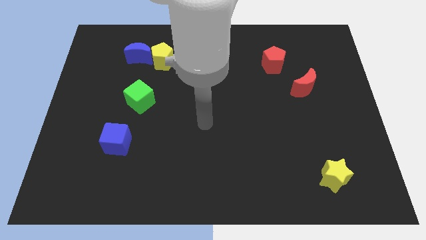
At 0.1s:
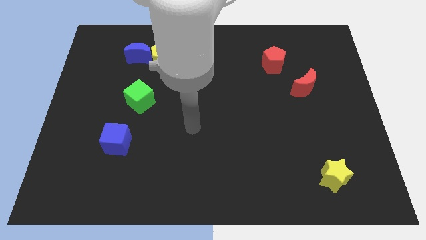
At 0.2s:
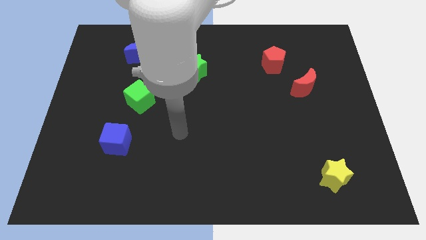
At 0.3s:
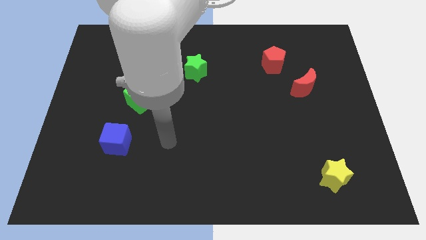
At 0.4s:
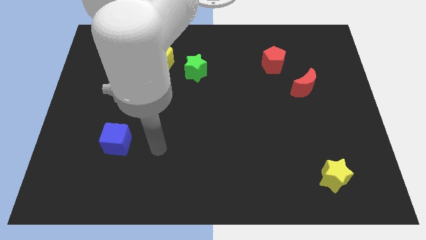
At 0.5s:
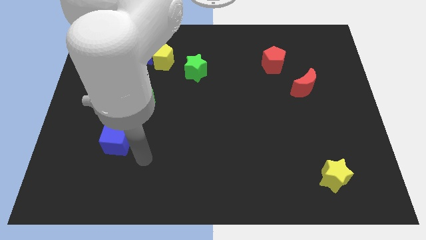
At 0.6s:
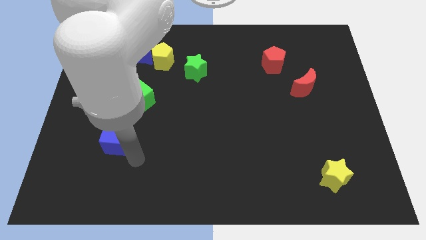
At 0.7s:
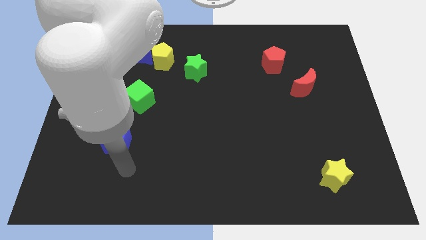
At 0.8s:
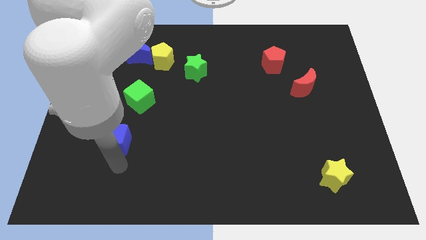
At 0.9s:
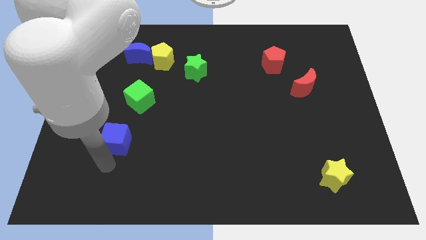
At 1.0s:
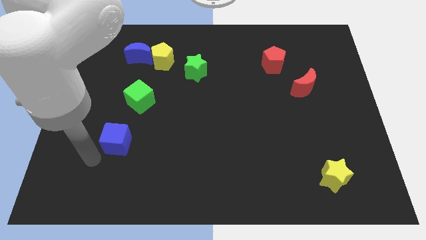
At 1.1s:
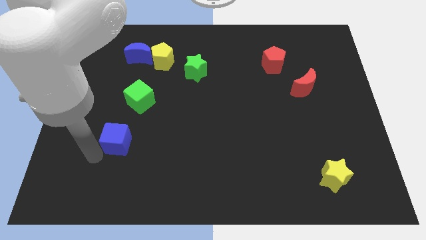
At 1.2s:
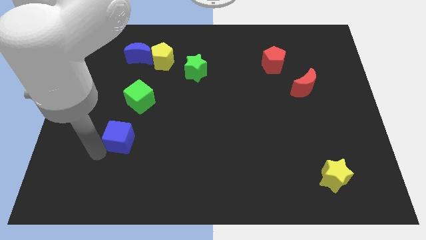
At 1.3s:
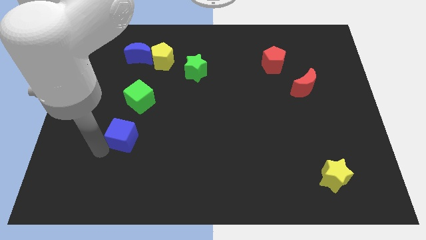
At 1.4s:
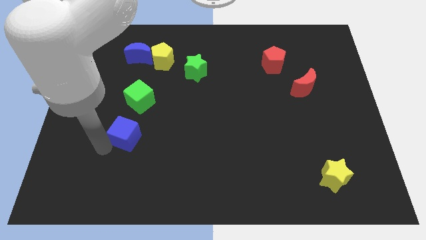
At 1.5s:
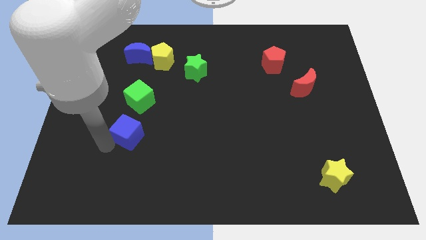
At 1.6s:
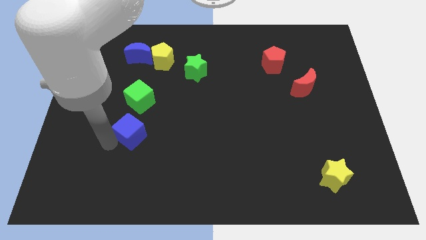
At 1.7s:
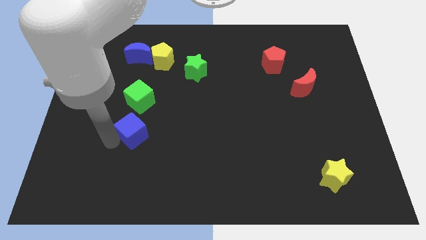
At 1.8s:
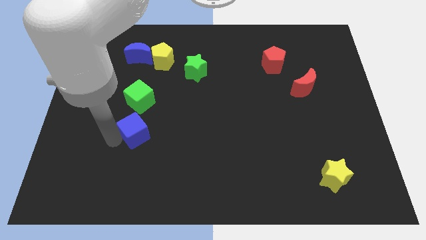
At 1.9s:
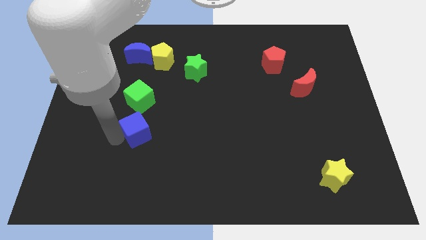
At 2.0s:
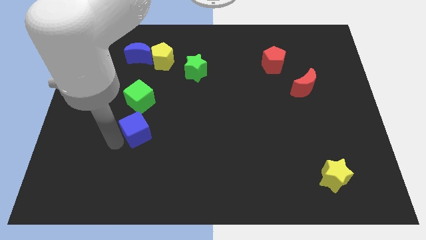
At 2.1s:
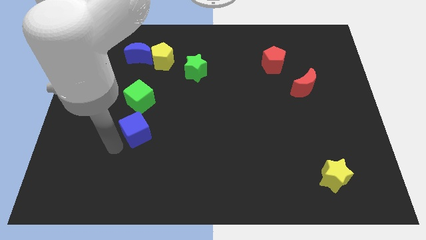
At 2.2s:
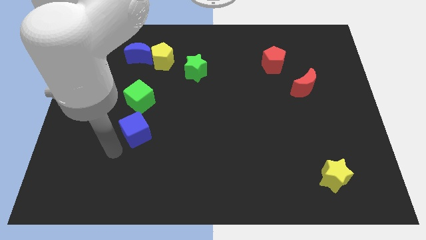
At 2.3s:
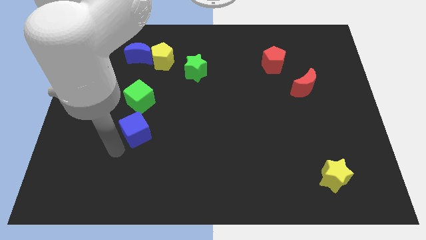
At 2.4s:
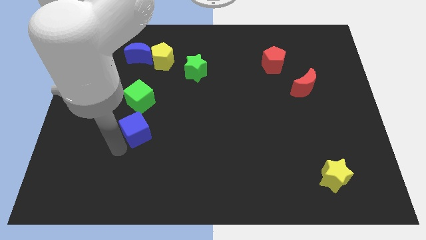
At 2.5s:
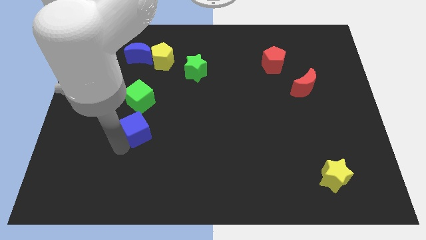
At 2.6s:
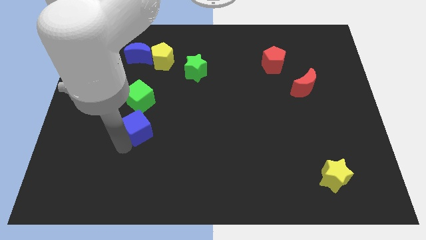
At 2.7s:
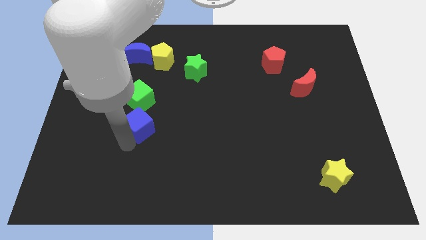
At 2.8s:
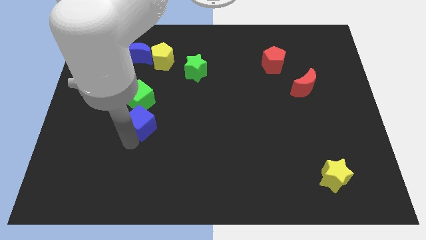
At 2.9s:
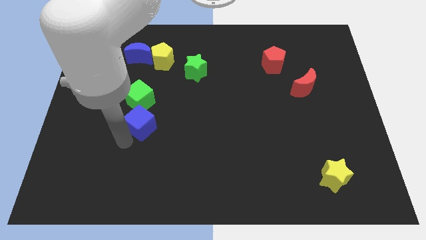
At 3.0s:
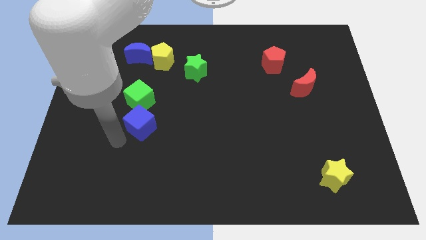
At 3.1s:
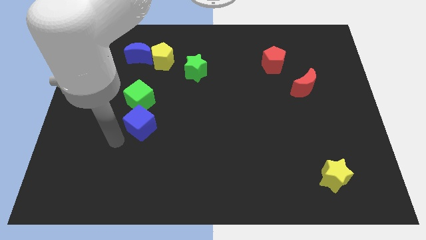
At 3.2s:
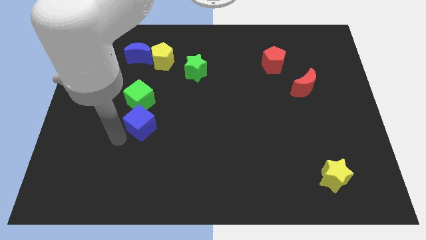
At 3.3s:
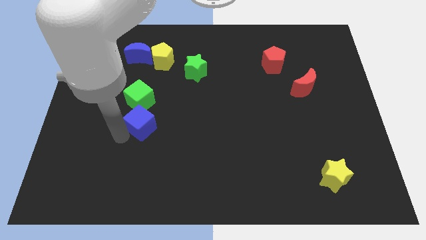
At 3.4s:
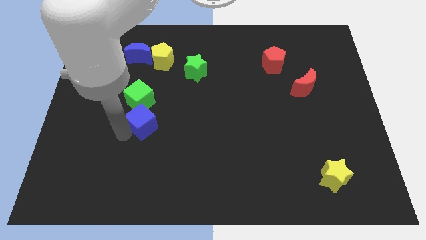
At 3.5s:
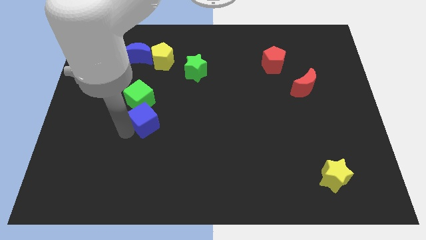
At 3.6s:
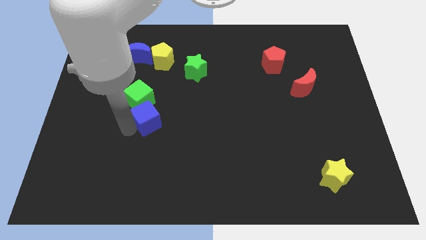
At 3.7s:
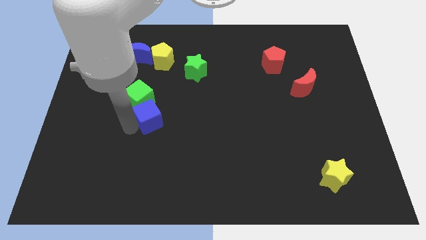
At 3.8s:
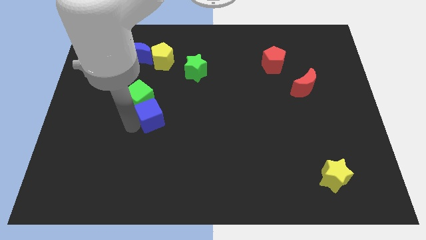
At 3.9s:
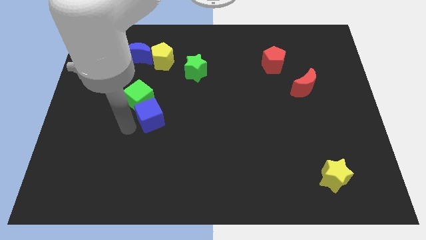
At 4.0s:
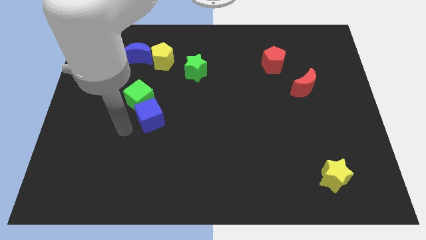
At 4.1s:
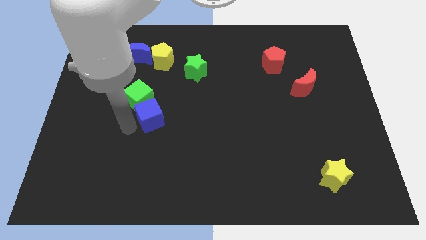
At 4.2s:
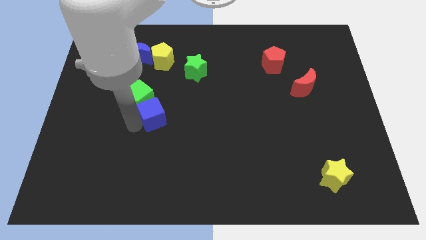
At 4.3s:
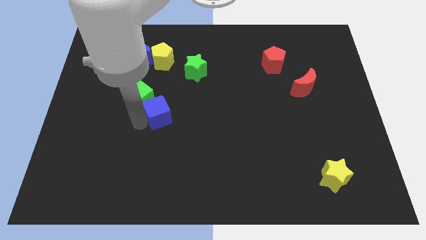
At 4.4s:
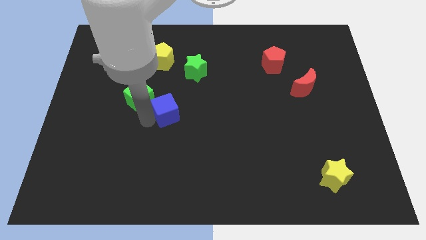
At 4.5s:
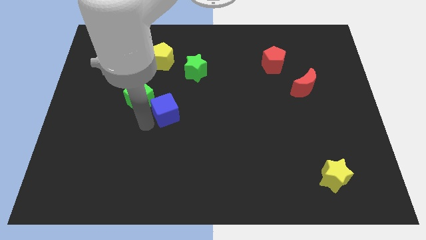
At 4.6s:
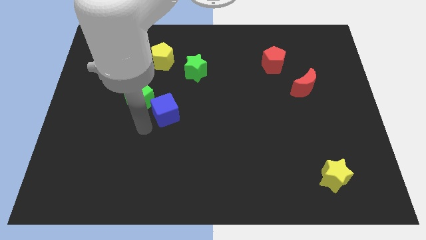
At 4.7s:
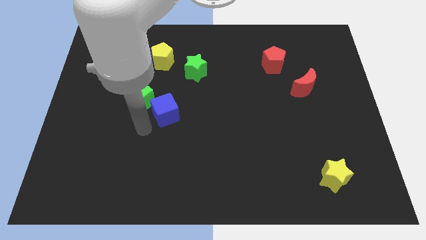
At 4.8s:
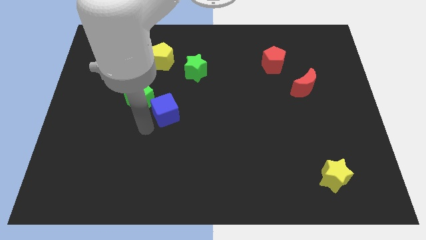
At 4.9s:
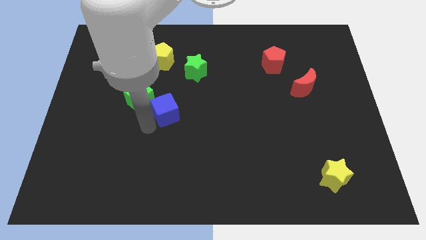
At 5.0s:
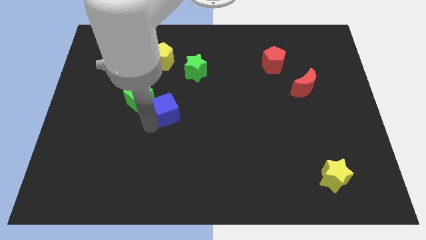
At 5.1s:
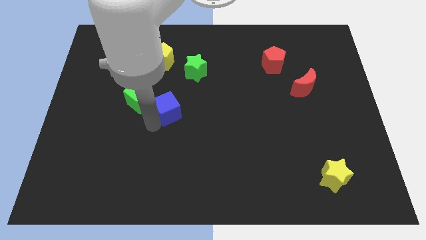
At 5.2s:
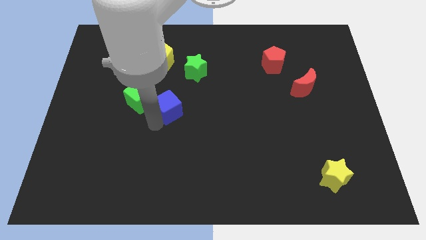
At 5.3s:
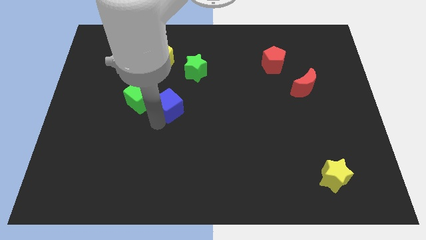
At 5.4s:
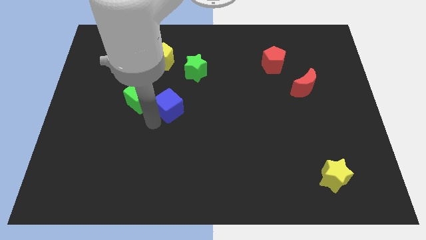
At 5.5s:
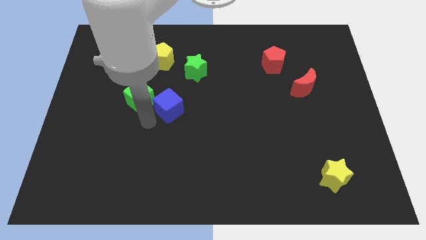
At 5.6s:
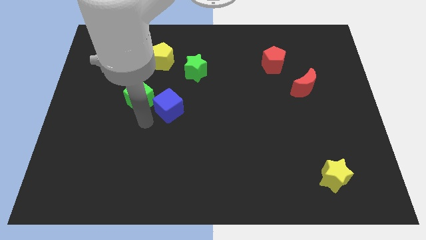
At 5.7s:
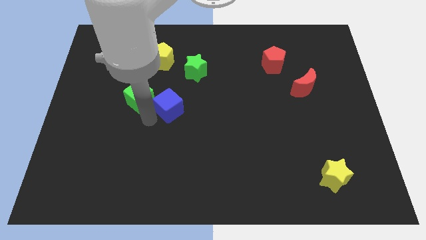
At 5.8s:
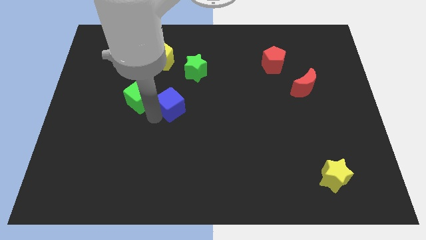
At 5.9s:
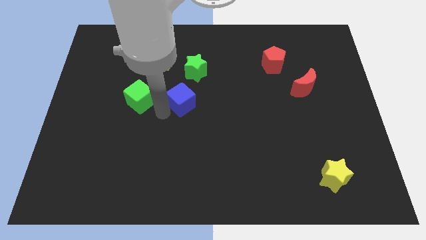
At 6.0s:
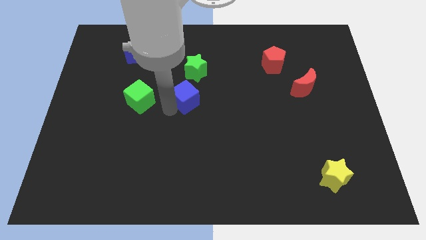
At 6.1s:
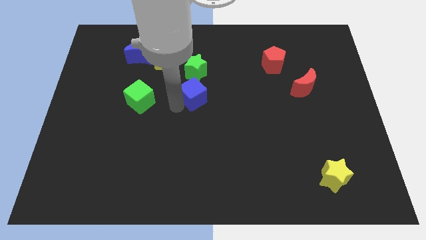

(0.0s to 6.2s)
move the blue cube diagonally upwards and right

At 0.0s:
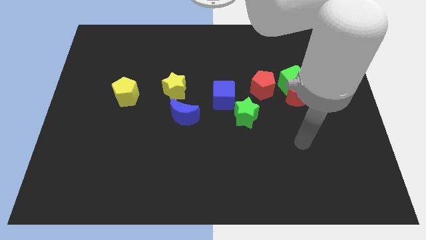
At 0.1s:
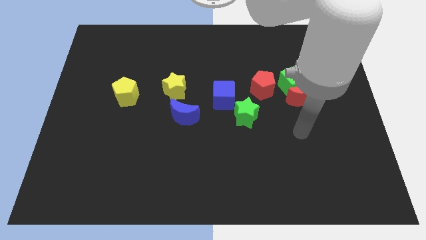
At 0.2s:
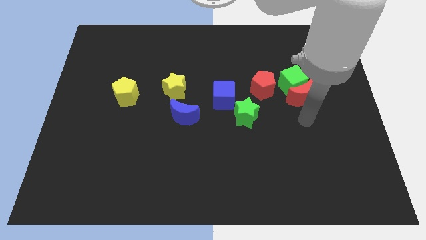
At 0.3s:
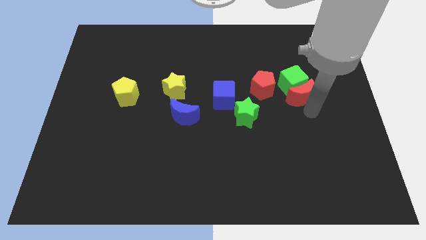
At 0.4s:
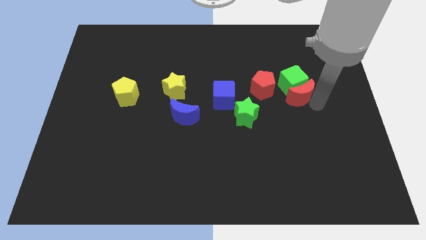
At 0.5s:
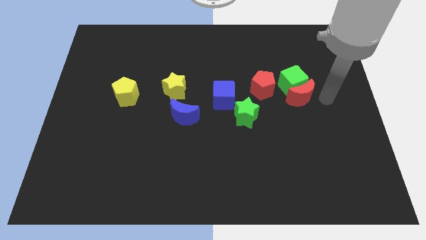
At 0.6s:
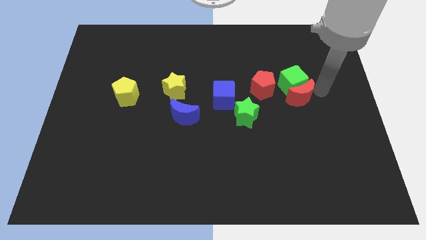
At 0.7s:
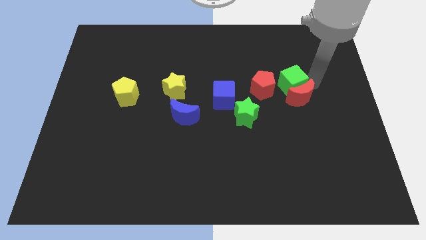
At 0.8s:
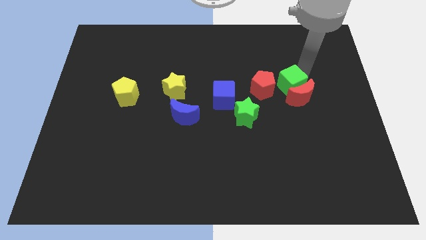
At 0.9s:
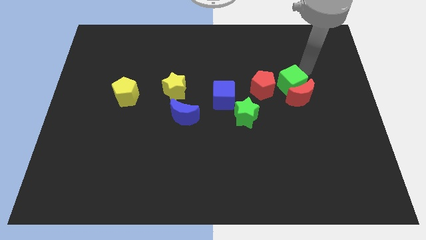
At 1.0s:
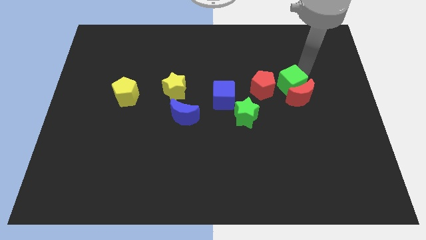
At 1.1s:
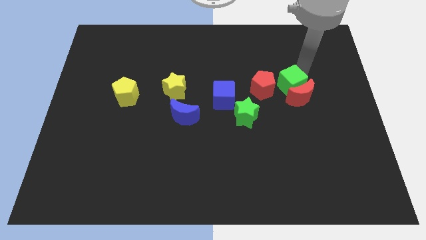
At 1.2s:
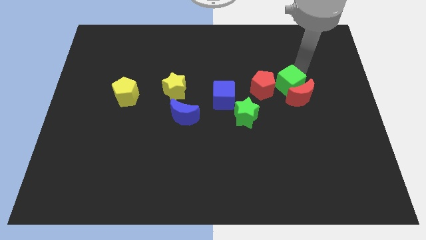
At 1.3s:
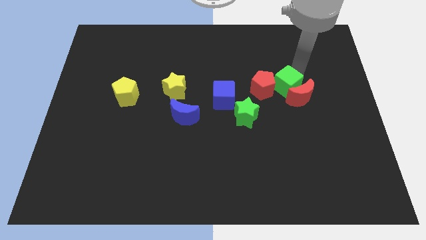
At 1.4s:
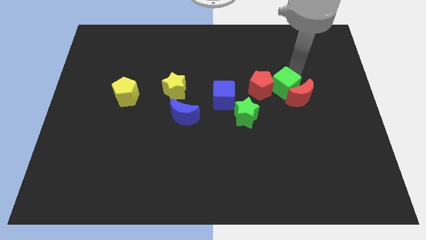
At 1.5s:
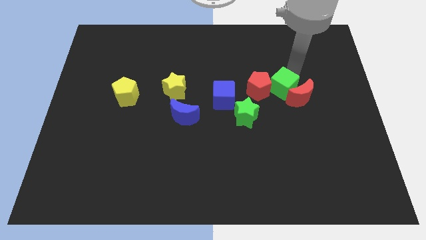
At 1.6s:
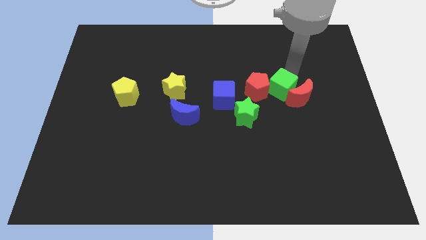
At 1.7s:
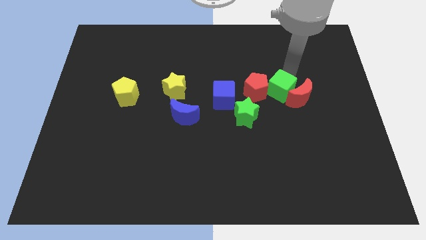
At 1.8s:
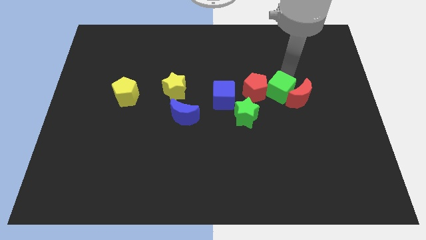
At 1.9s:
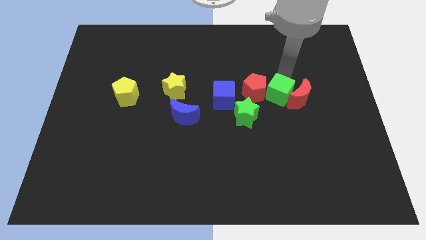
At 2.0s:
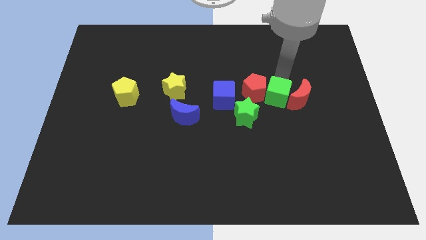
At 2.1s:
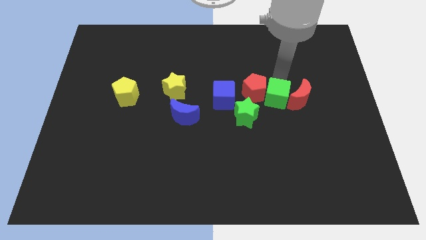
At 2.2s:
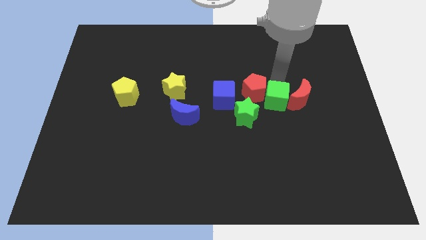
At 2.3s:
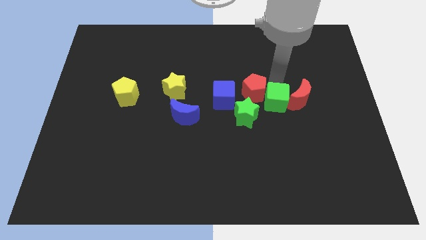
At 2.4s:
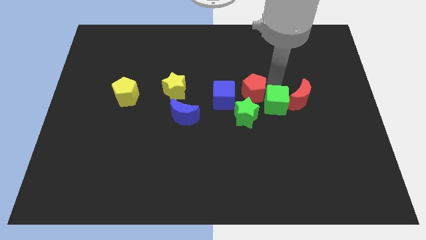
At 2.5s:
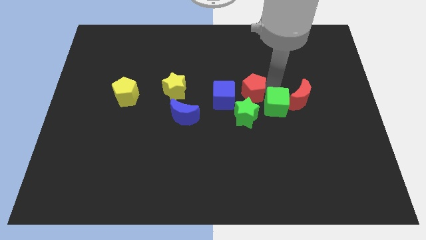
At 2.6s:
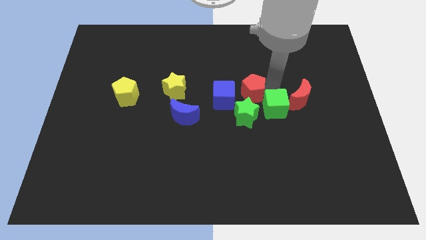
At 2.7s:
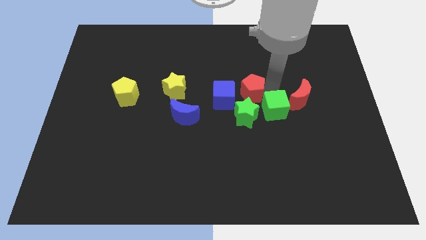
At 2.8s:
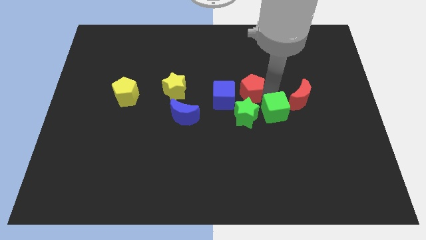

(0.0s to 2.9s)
slightly push the green cube down
